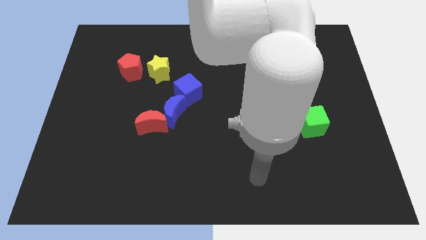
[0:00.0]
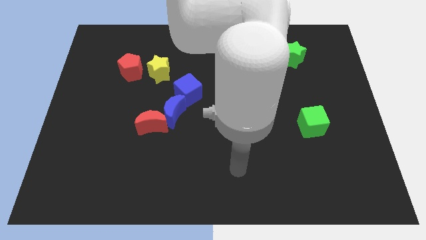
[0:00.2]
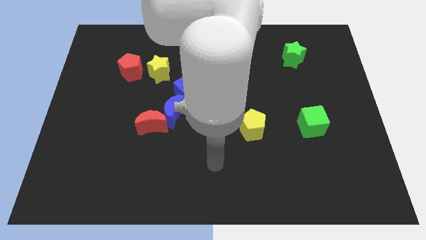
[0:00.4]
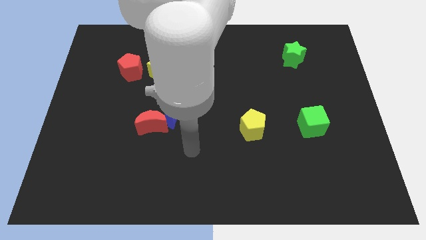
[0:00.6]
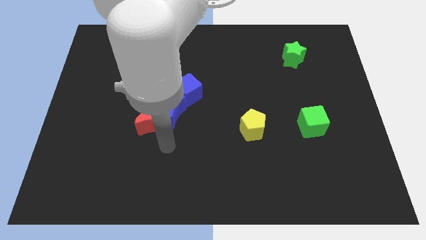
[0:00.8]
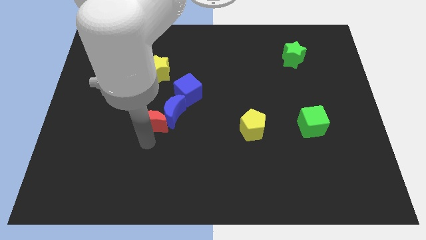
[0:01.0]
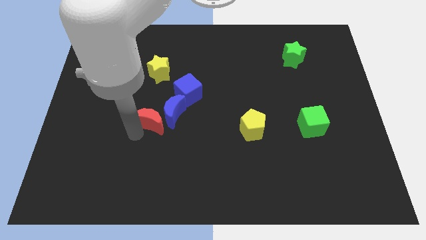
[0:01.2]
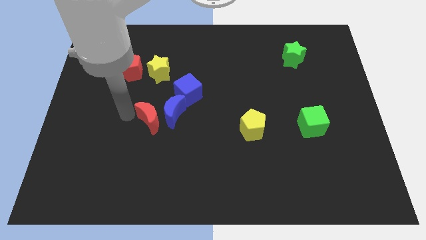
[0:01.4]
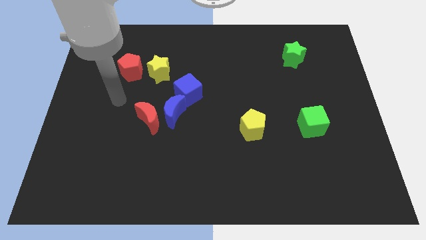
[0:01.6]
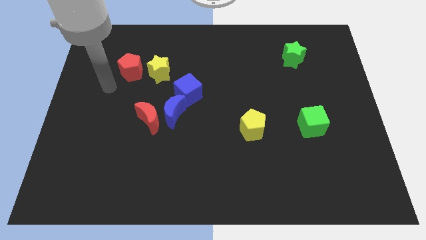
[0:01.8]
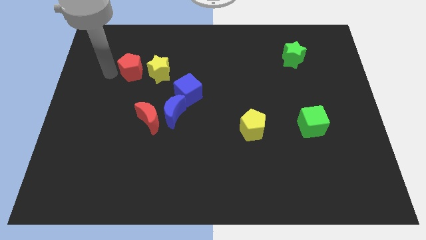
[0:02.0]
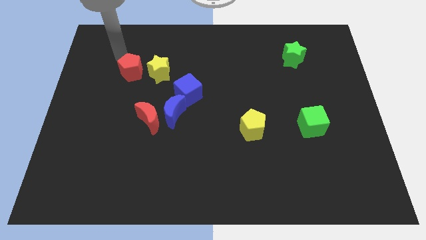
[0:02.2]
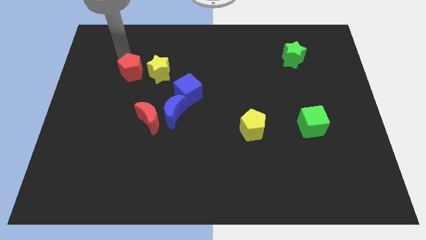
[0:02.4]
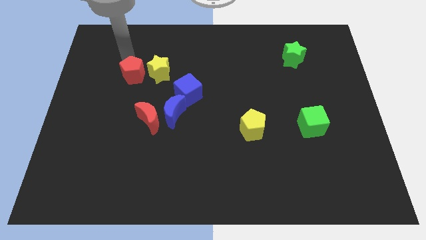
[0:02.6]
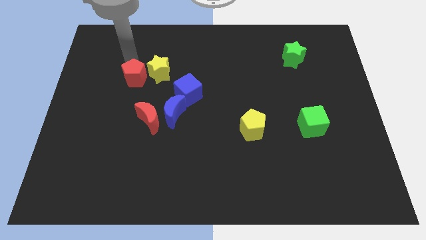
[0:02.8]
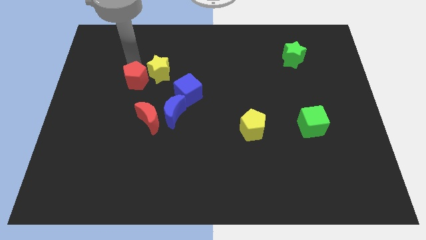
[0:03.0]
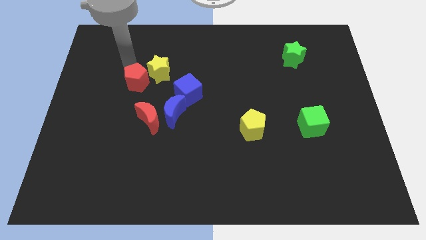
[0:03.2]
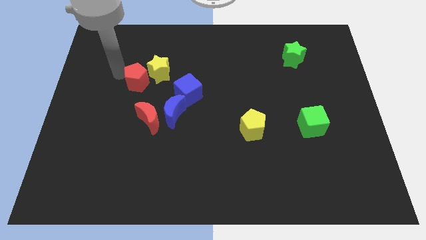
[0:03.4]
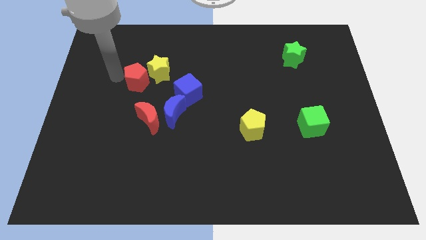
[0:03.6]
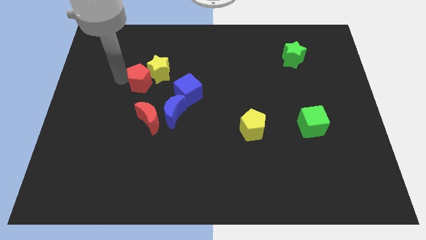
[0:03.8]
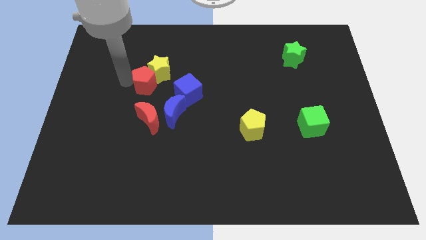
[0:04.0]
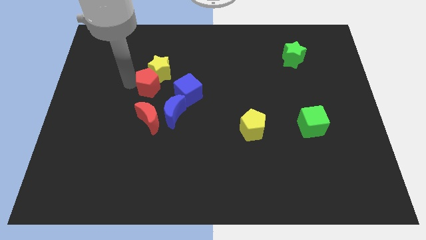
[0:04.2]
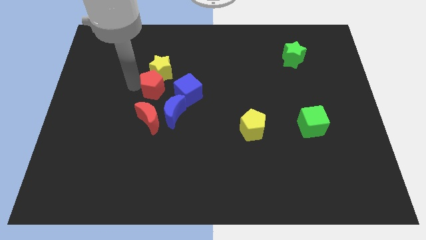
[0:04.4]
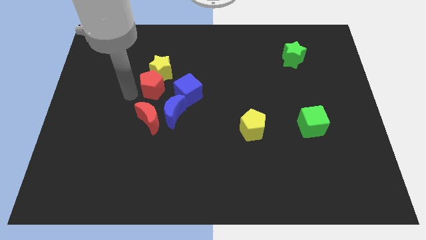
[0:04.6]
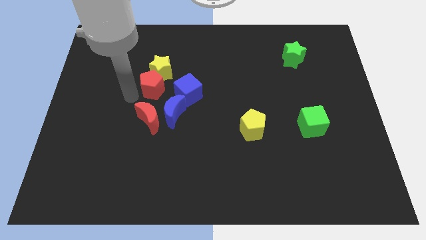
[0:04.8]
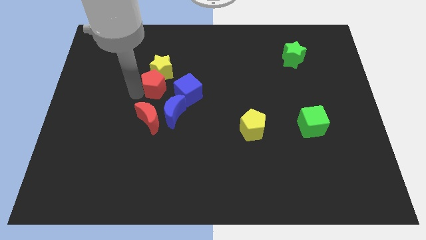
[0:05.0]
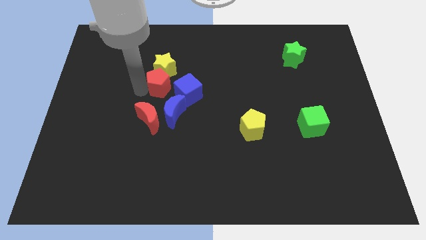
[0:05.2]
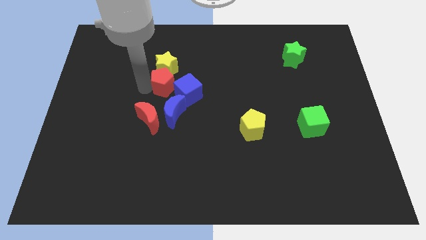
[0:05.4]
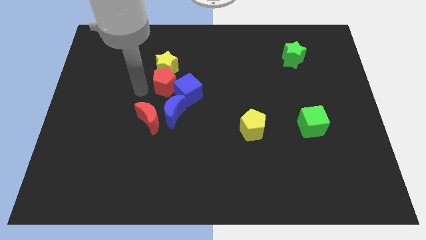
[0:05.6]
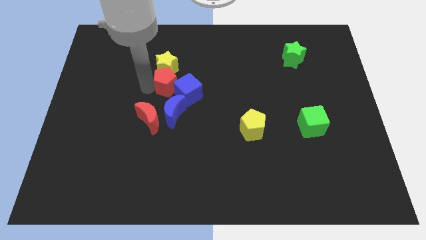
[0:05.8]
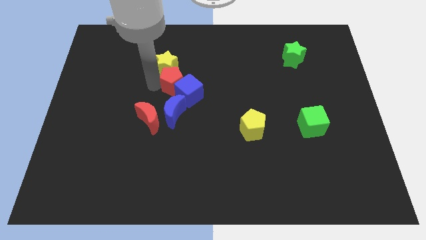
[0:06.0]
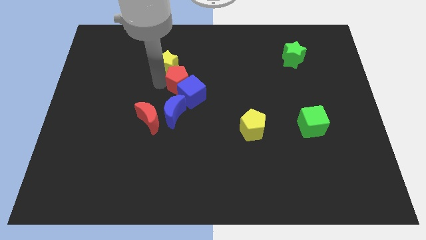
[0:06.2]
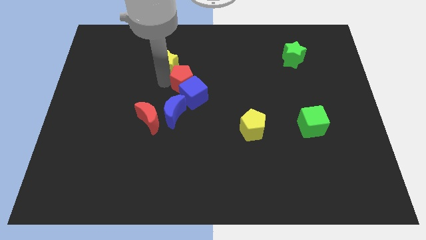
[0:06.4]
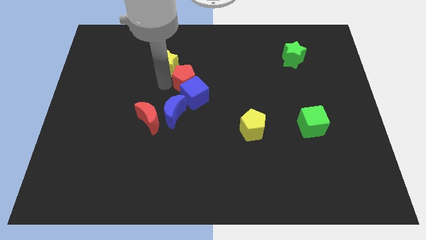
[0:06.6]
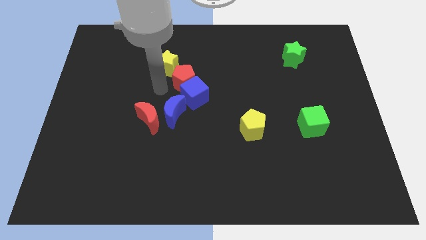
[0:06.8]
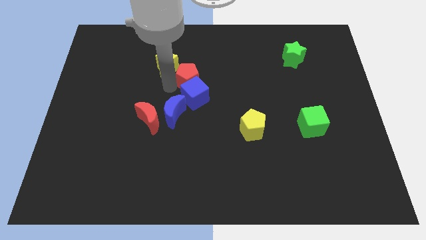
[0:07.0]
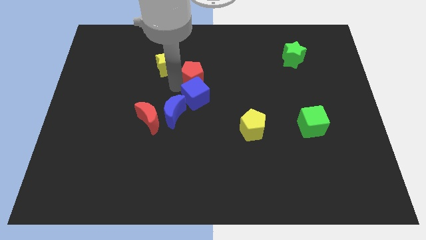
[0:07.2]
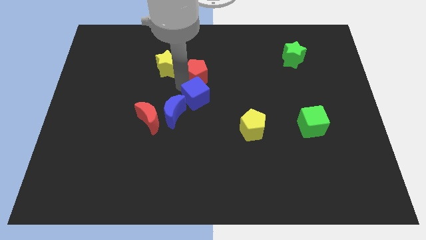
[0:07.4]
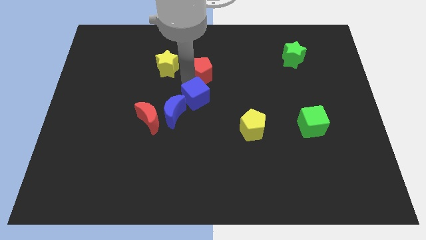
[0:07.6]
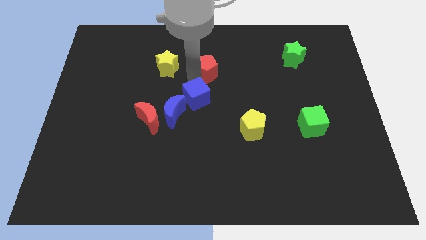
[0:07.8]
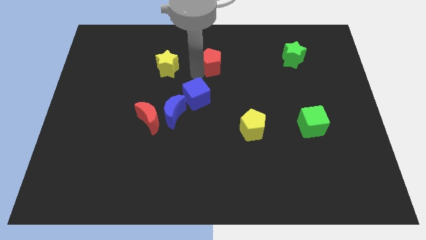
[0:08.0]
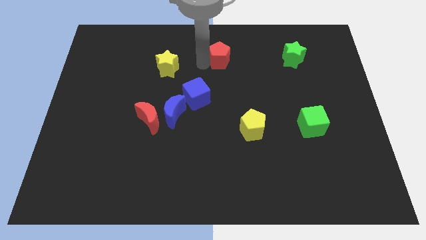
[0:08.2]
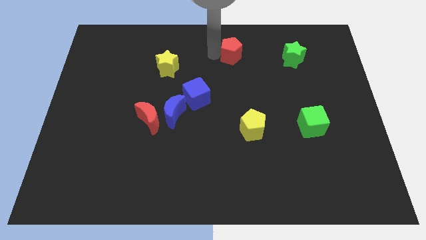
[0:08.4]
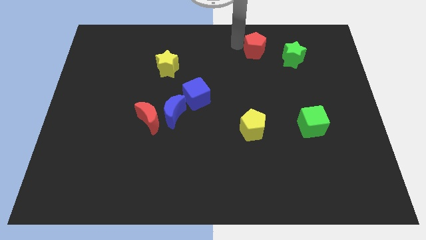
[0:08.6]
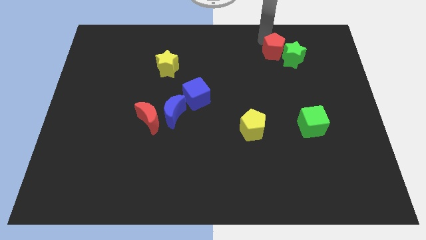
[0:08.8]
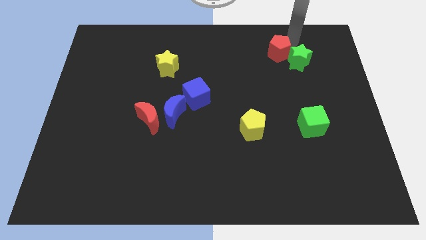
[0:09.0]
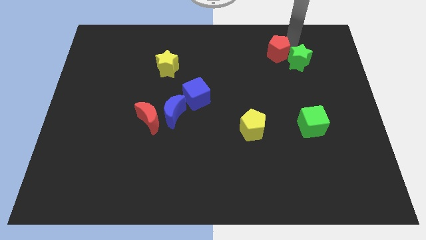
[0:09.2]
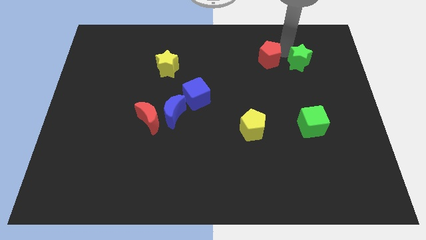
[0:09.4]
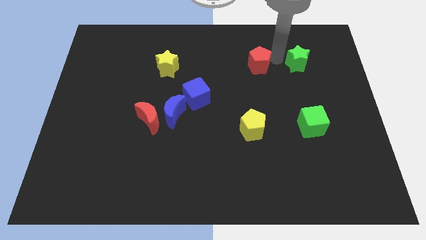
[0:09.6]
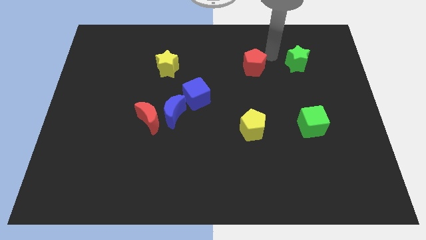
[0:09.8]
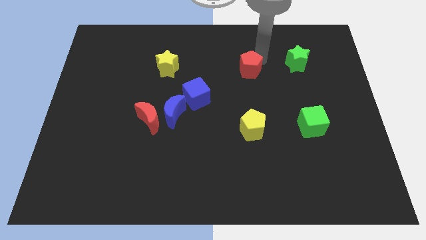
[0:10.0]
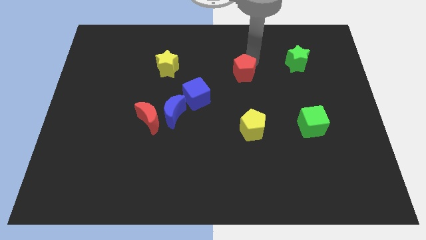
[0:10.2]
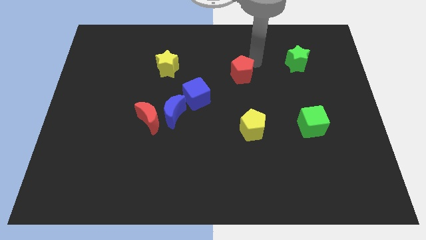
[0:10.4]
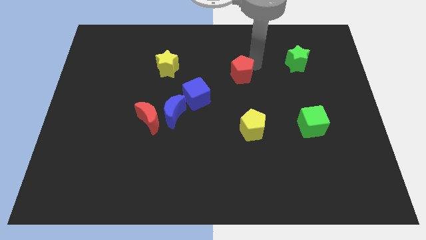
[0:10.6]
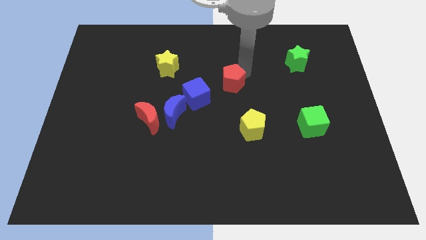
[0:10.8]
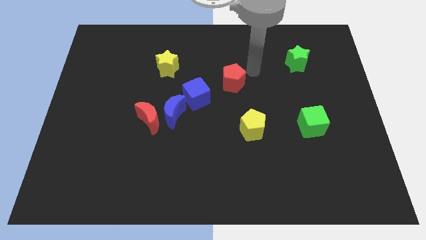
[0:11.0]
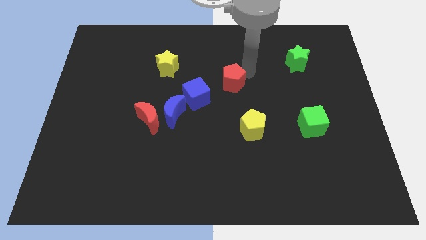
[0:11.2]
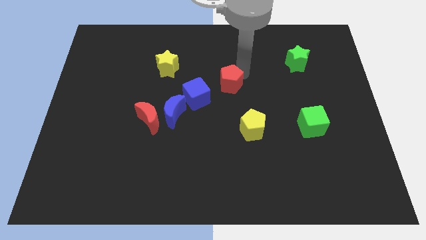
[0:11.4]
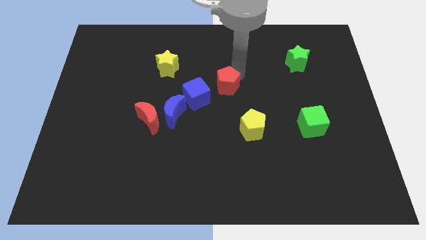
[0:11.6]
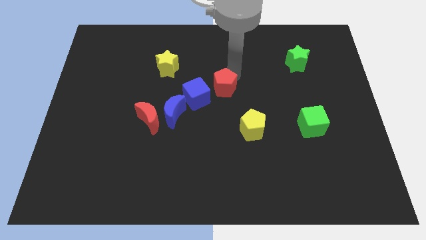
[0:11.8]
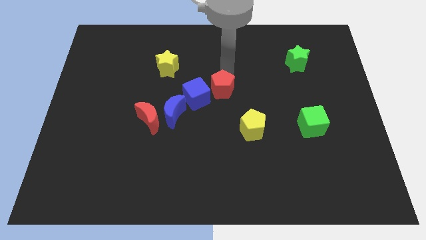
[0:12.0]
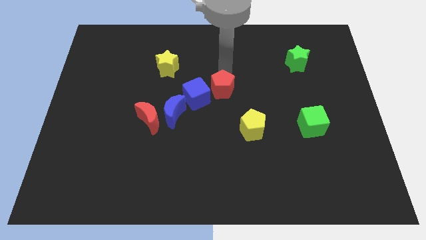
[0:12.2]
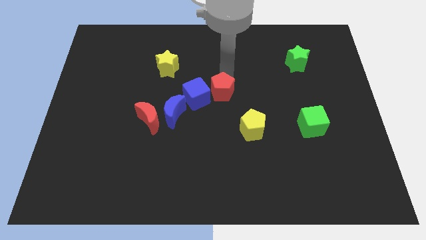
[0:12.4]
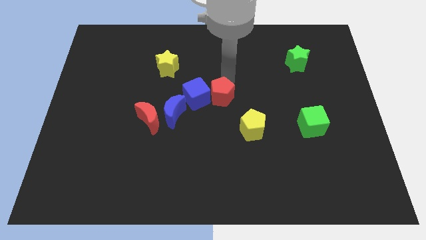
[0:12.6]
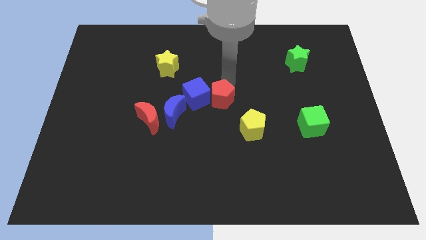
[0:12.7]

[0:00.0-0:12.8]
put the red pentagon just right of the blue moon
